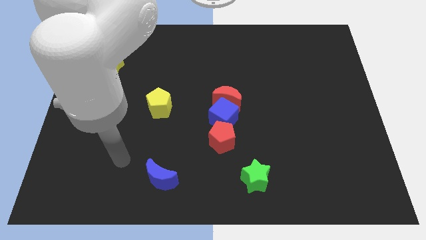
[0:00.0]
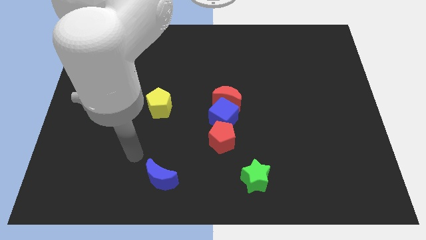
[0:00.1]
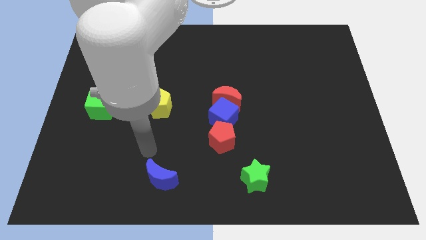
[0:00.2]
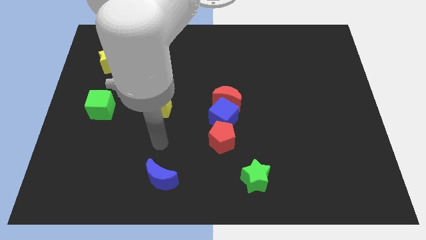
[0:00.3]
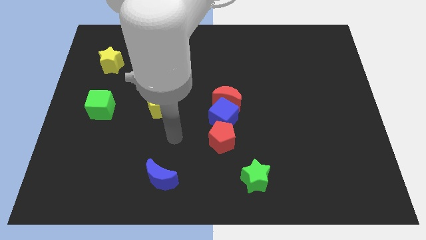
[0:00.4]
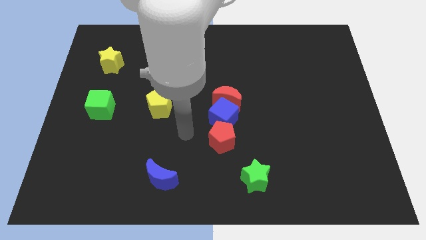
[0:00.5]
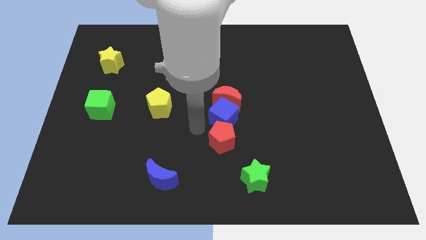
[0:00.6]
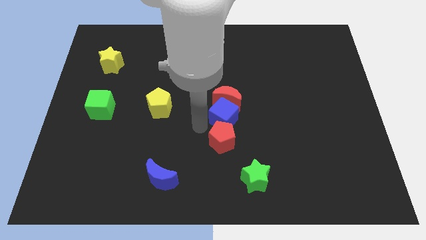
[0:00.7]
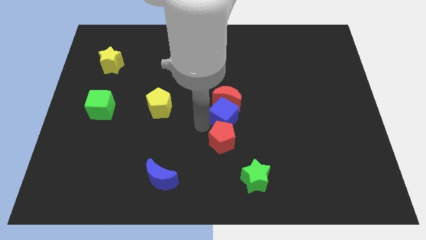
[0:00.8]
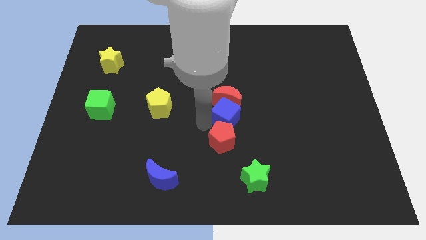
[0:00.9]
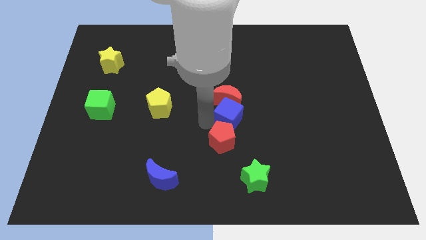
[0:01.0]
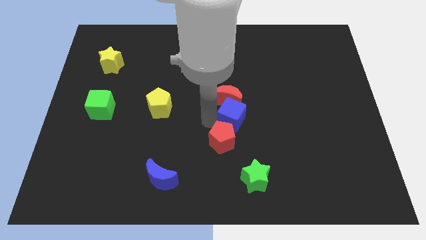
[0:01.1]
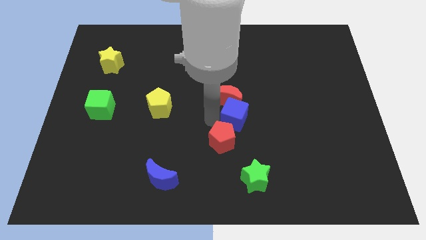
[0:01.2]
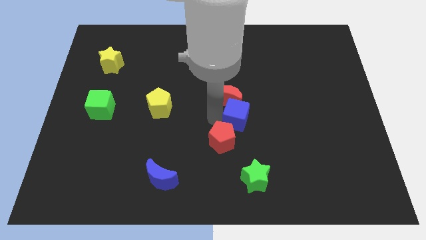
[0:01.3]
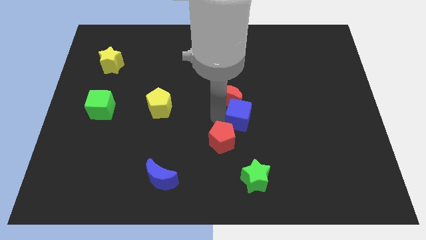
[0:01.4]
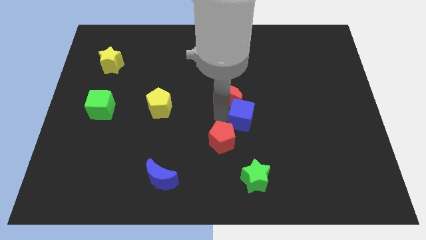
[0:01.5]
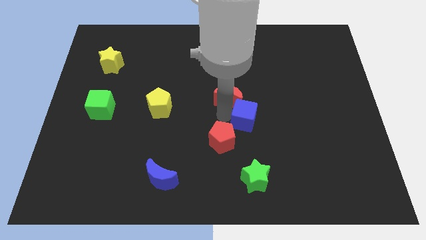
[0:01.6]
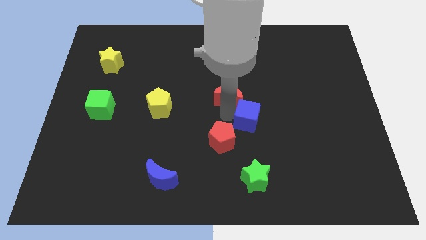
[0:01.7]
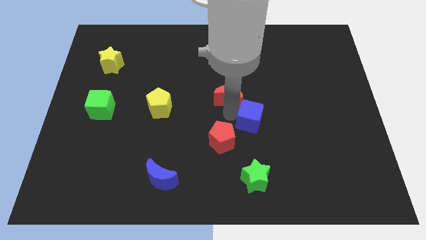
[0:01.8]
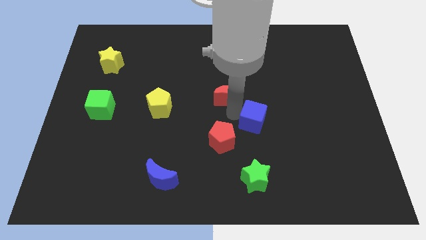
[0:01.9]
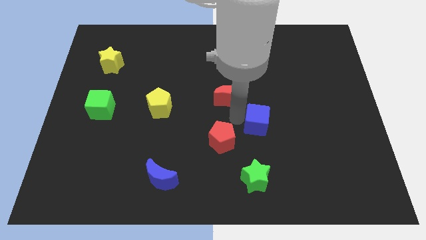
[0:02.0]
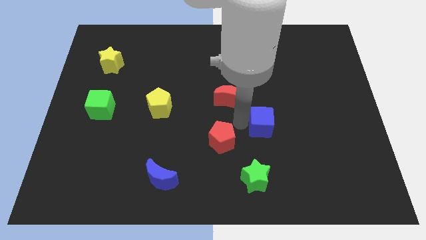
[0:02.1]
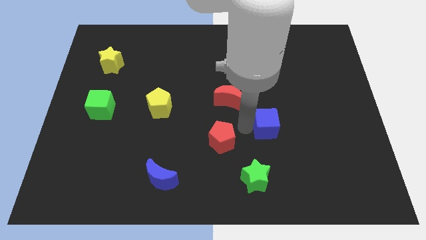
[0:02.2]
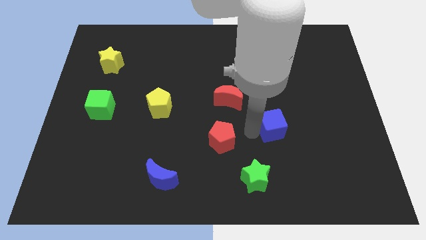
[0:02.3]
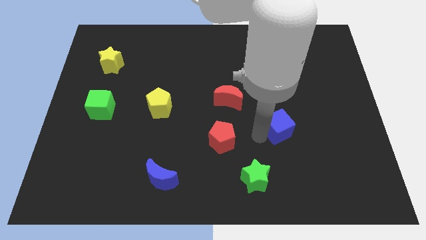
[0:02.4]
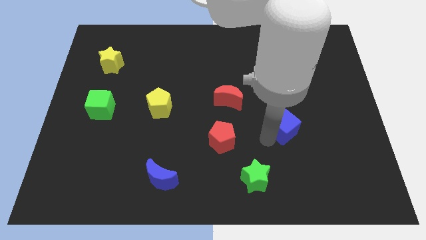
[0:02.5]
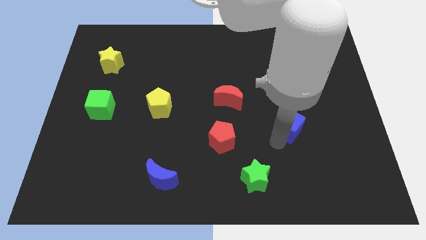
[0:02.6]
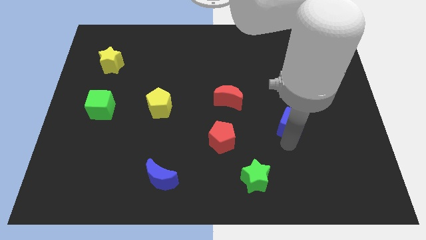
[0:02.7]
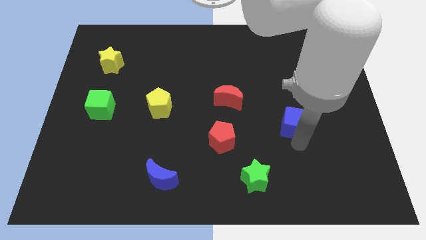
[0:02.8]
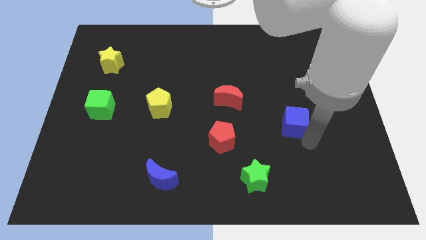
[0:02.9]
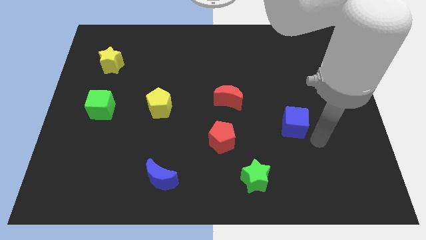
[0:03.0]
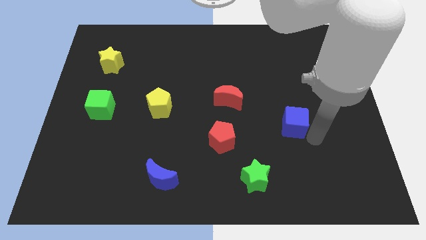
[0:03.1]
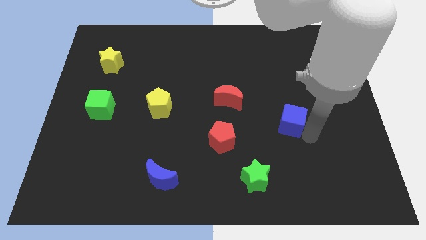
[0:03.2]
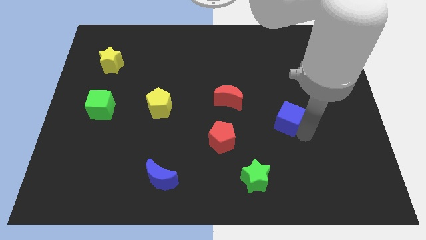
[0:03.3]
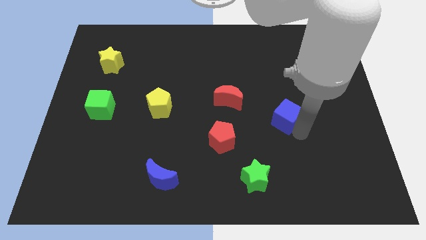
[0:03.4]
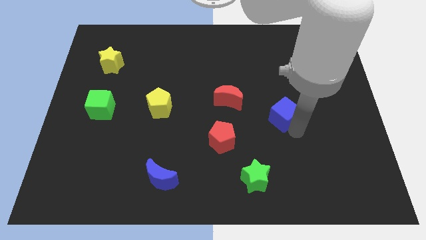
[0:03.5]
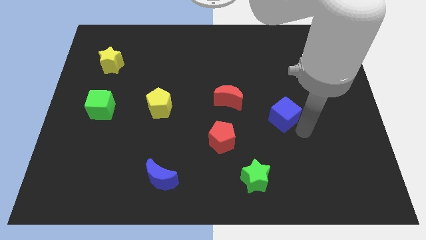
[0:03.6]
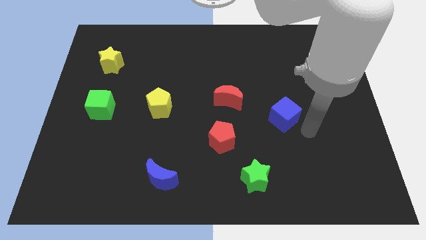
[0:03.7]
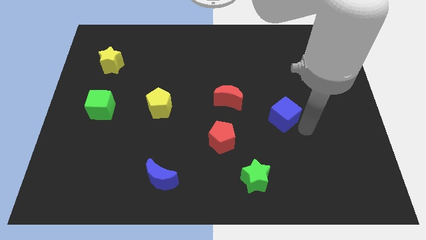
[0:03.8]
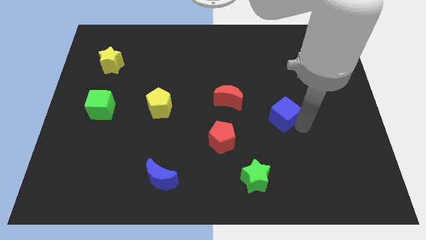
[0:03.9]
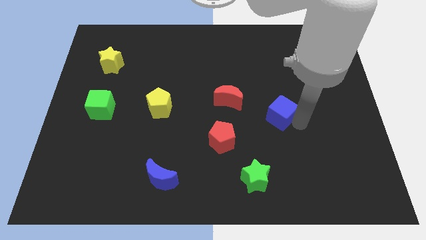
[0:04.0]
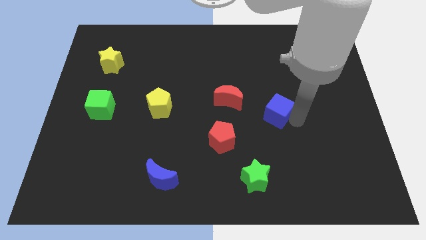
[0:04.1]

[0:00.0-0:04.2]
slightly slide the blue cube upwards and right

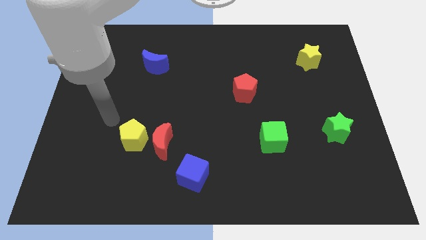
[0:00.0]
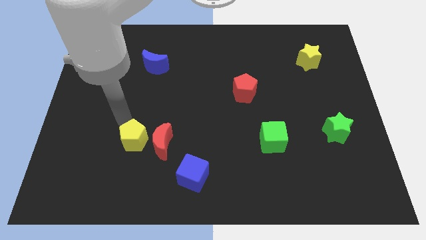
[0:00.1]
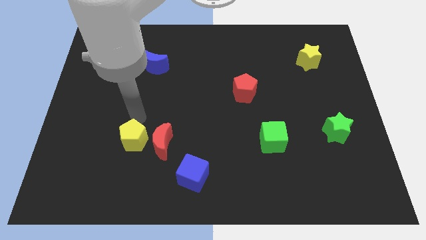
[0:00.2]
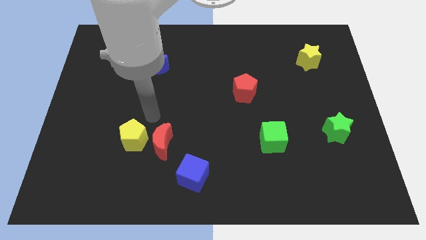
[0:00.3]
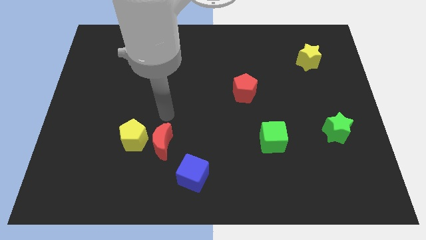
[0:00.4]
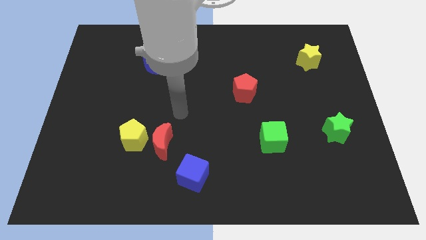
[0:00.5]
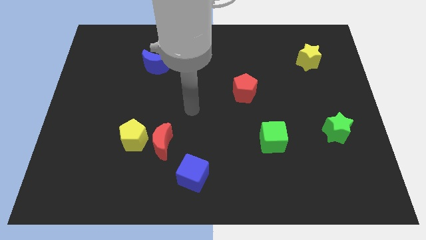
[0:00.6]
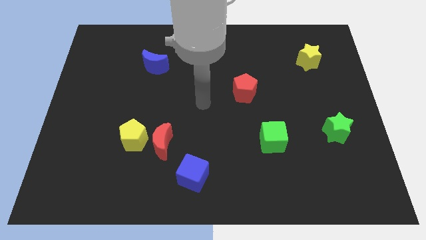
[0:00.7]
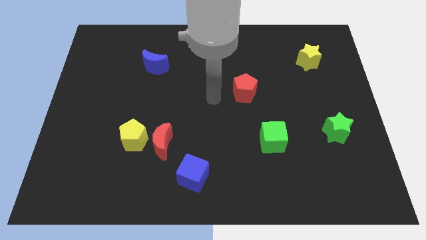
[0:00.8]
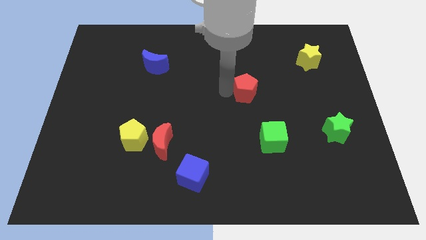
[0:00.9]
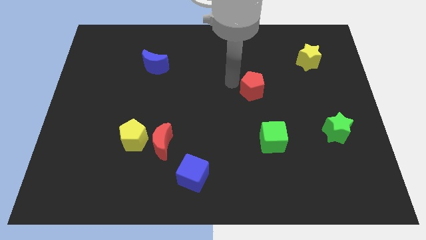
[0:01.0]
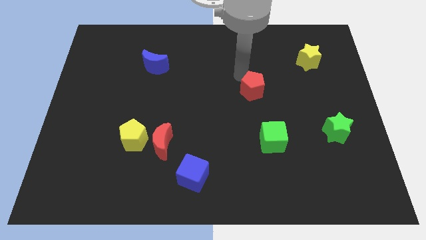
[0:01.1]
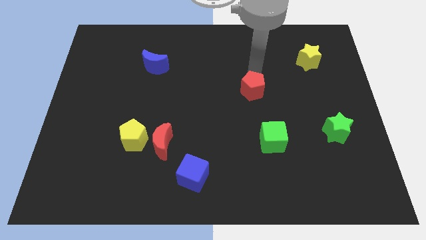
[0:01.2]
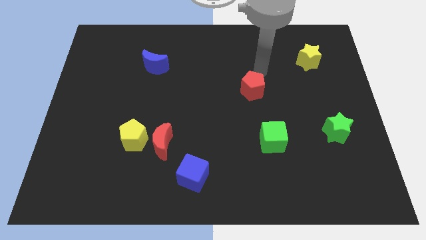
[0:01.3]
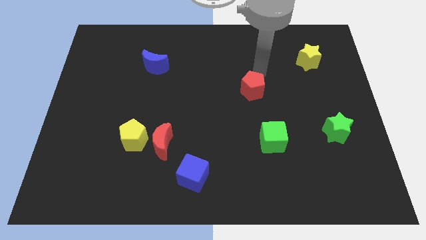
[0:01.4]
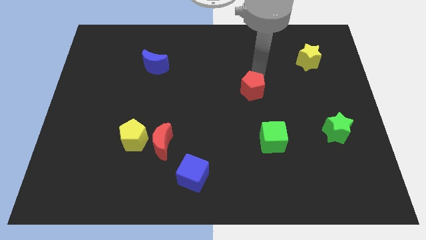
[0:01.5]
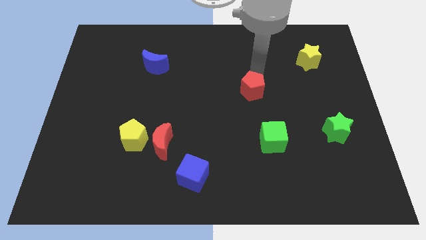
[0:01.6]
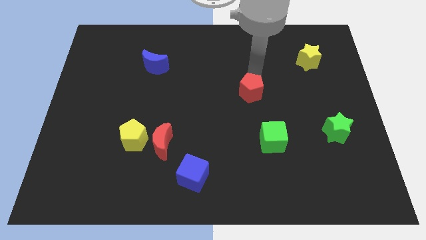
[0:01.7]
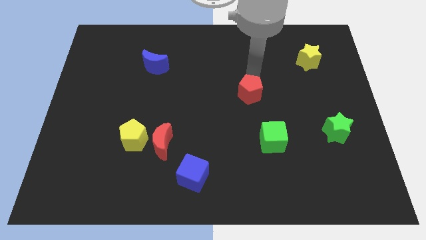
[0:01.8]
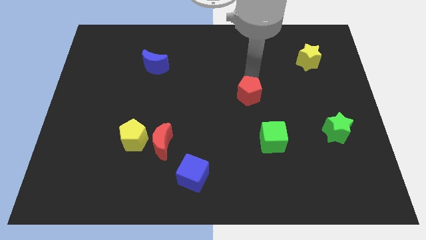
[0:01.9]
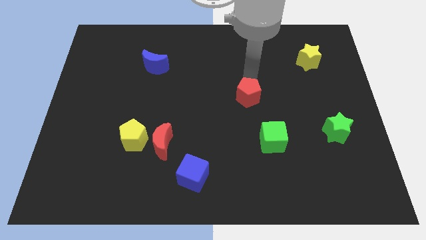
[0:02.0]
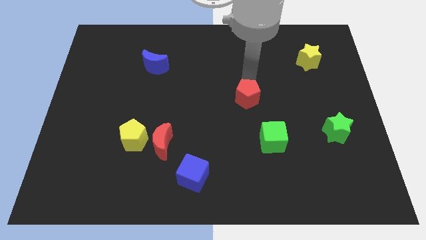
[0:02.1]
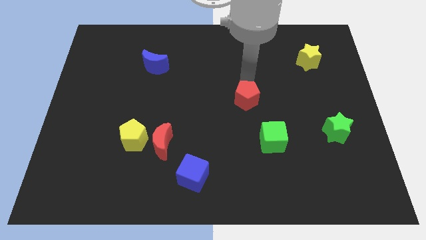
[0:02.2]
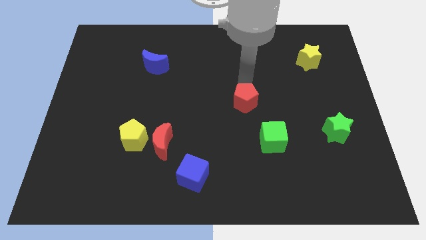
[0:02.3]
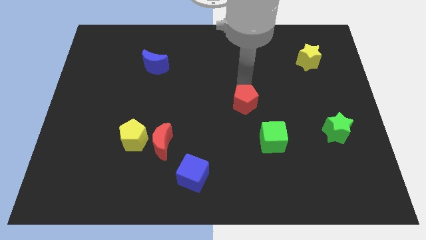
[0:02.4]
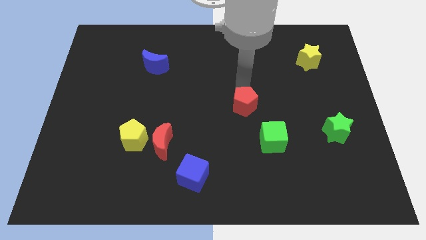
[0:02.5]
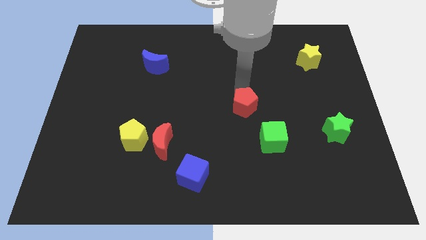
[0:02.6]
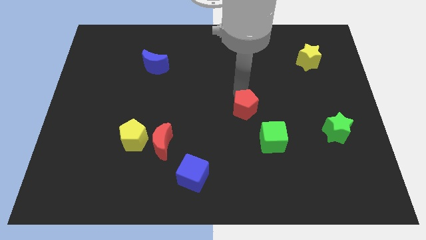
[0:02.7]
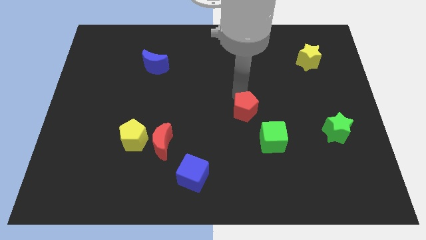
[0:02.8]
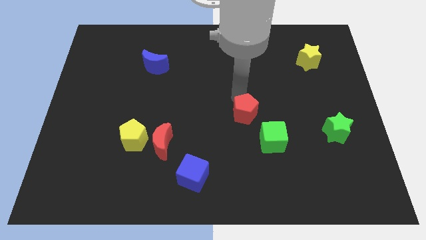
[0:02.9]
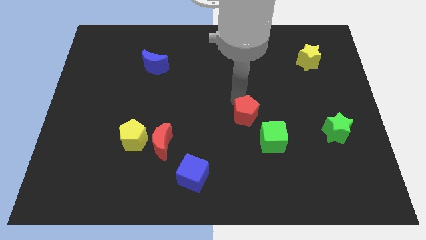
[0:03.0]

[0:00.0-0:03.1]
slide the red pentagon downwards a bit

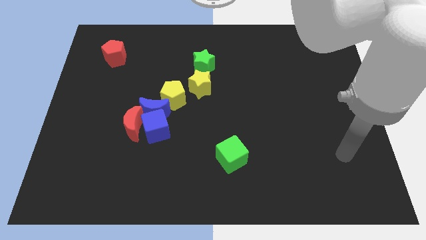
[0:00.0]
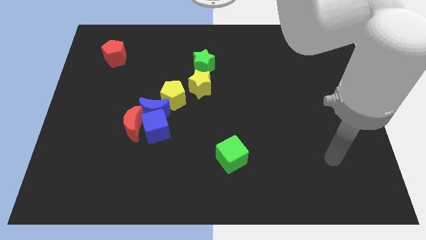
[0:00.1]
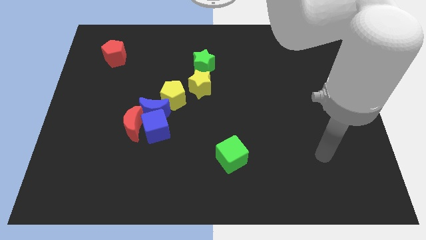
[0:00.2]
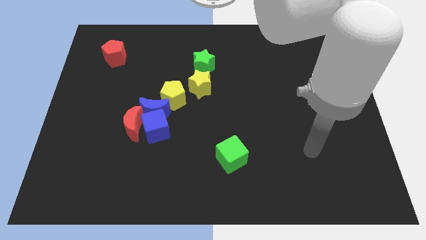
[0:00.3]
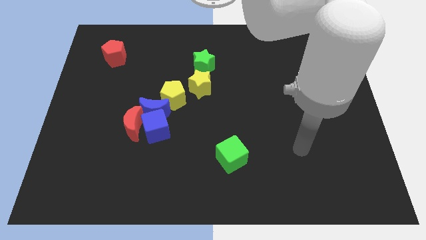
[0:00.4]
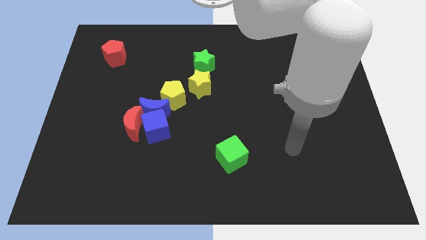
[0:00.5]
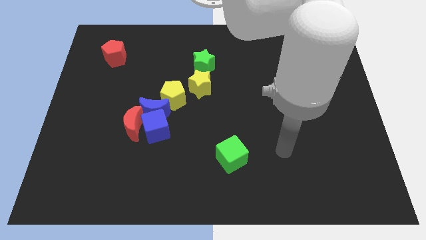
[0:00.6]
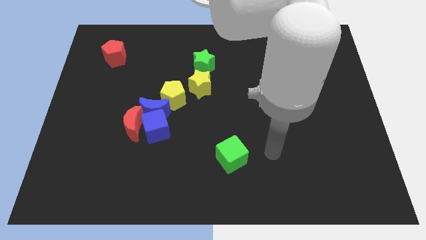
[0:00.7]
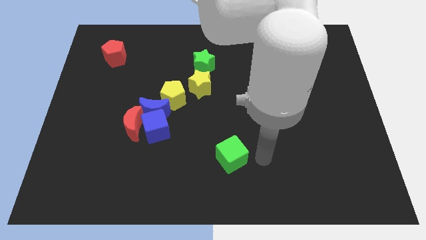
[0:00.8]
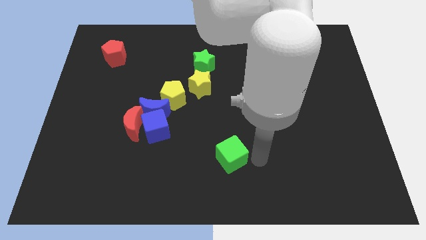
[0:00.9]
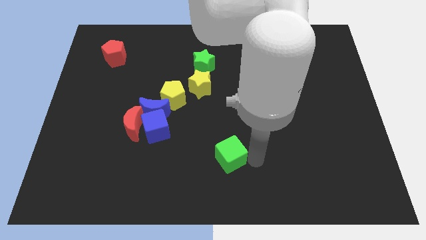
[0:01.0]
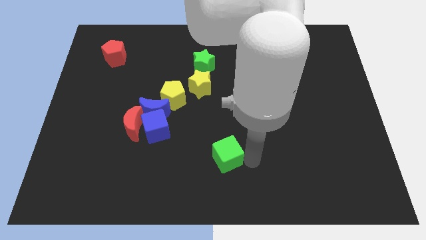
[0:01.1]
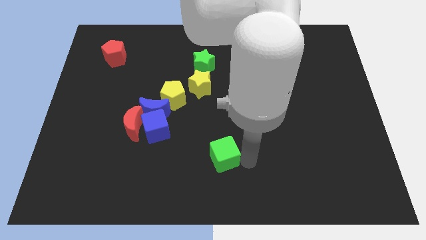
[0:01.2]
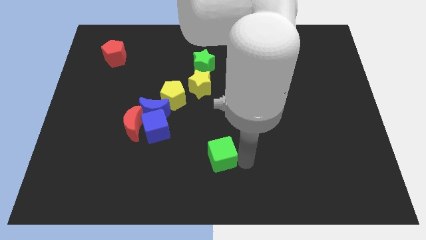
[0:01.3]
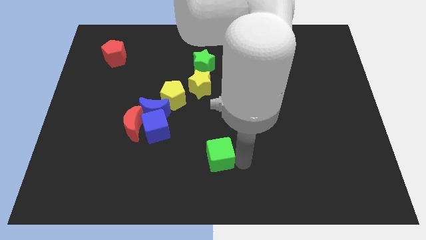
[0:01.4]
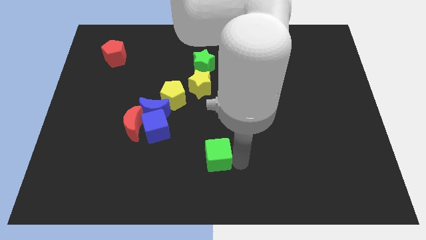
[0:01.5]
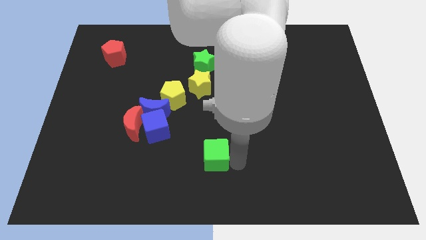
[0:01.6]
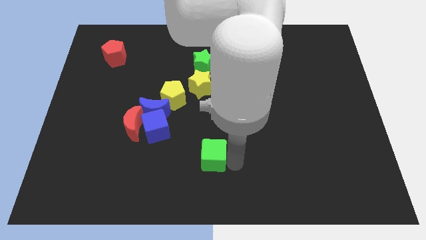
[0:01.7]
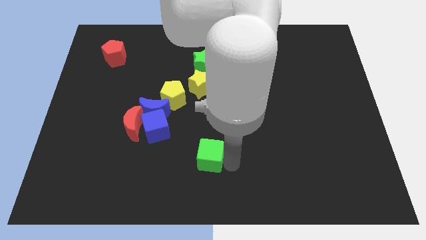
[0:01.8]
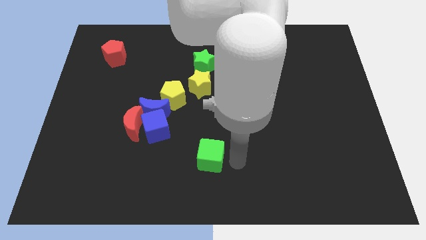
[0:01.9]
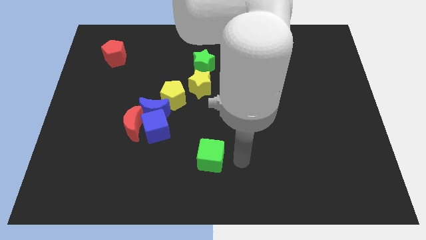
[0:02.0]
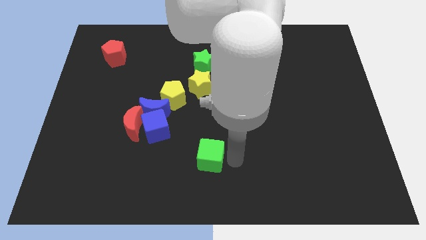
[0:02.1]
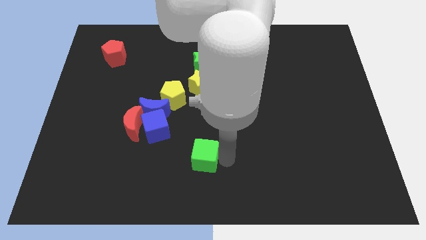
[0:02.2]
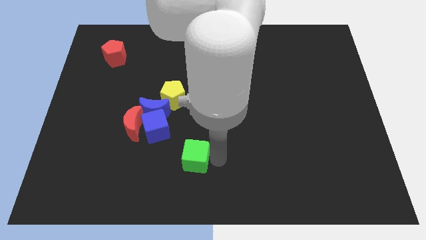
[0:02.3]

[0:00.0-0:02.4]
slide the green cube a bit left
